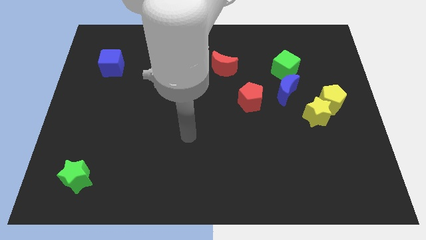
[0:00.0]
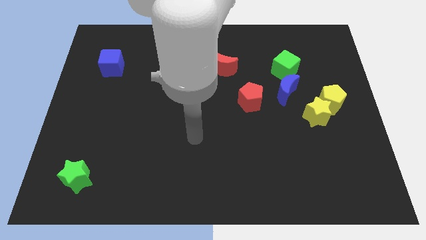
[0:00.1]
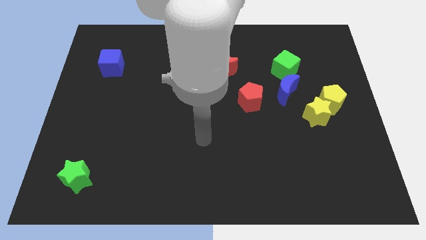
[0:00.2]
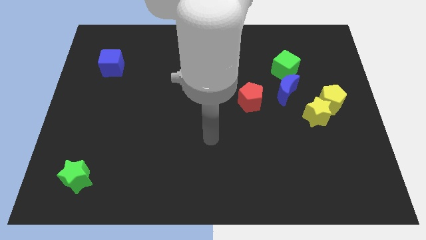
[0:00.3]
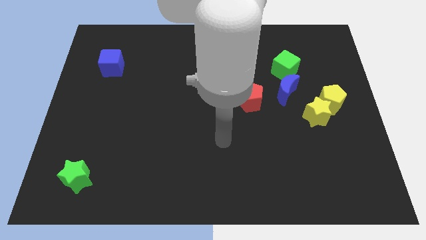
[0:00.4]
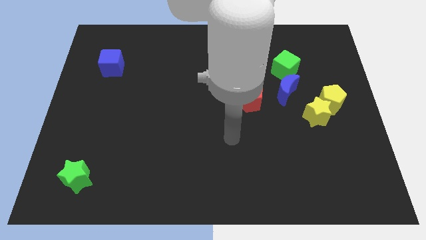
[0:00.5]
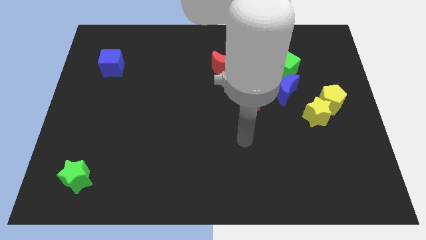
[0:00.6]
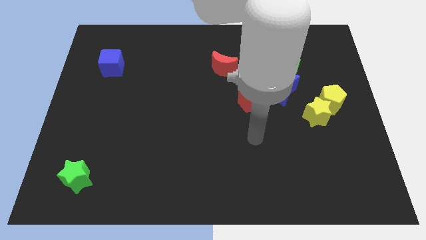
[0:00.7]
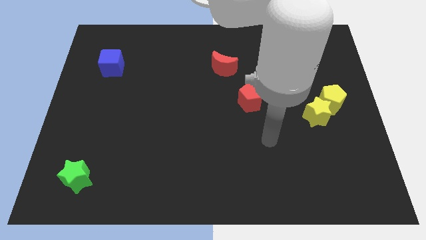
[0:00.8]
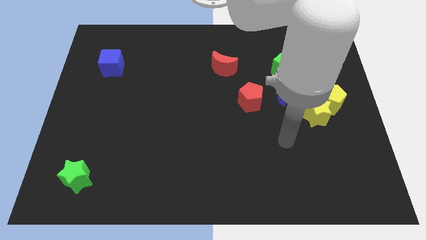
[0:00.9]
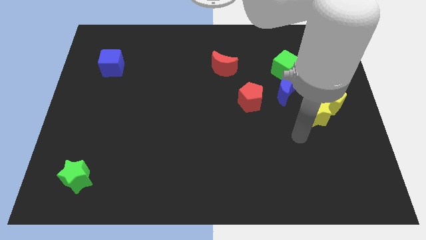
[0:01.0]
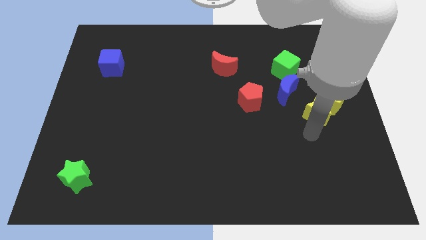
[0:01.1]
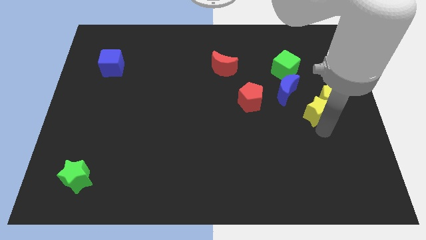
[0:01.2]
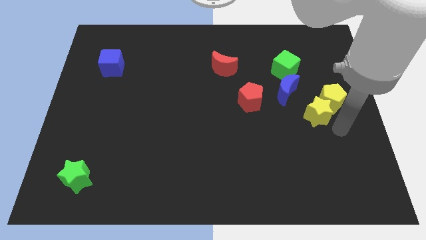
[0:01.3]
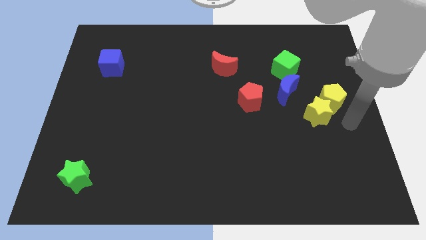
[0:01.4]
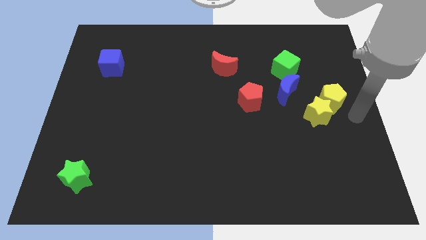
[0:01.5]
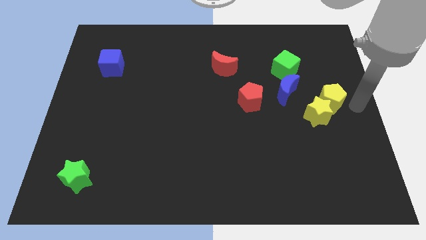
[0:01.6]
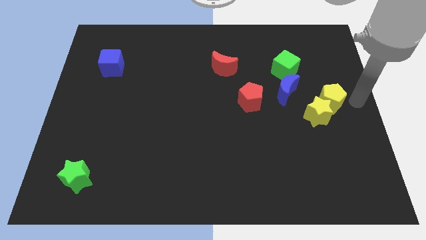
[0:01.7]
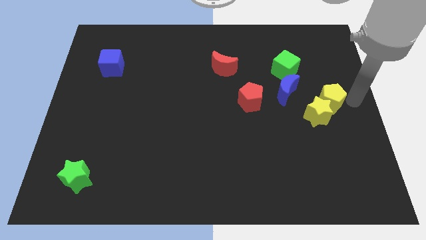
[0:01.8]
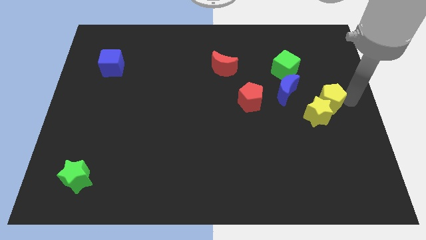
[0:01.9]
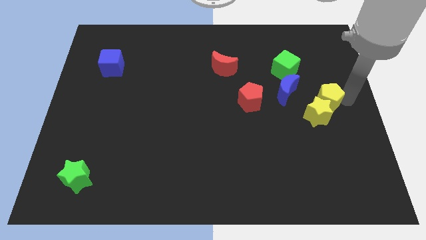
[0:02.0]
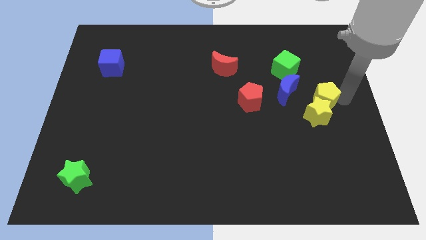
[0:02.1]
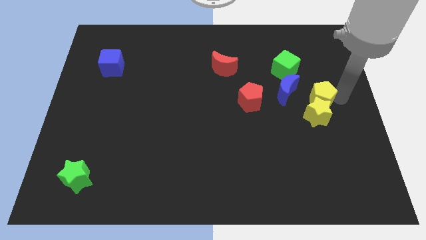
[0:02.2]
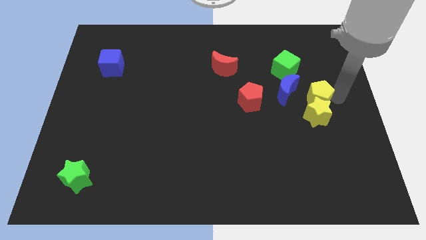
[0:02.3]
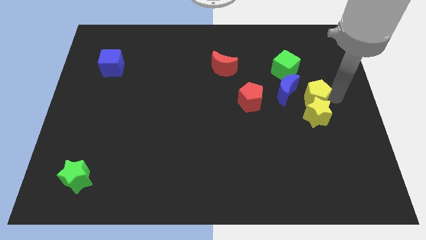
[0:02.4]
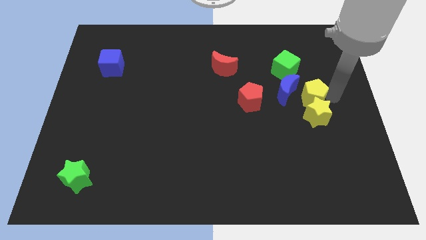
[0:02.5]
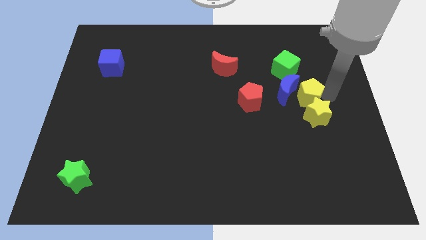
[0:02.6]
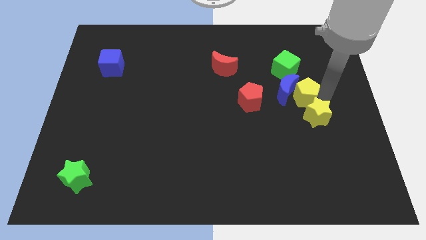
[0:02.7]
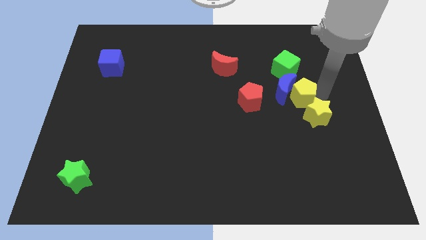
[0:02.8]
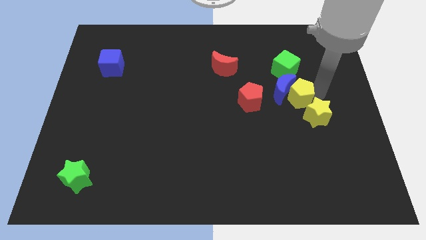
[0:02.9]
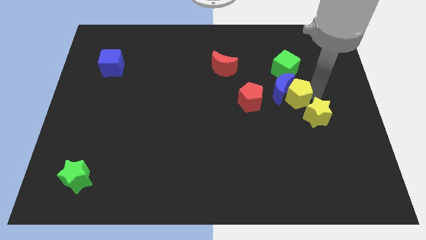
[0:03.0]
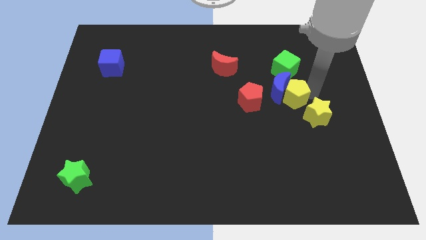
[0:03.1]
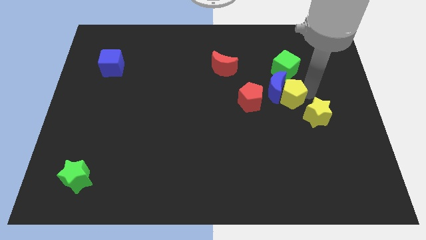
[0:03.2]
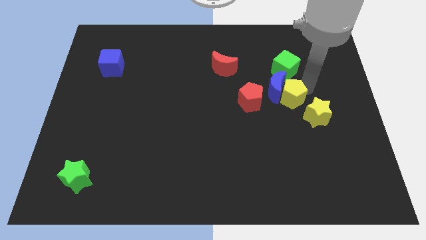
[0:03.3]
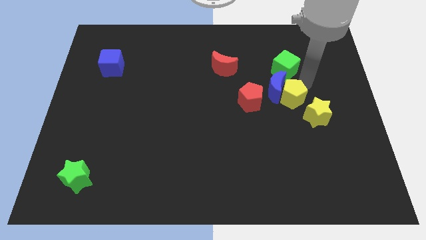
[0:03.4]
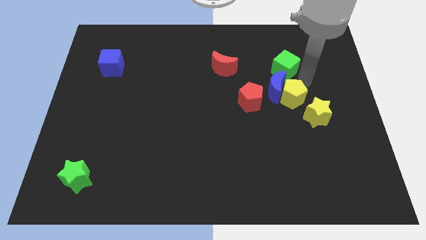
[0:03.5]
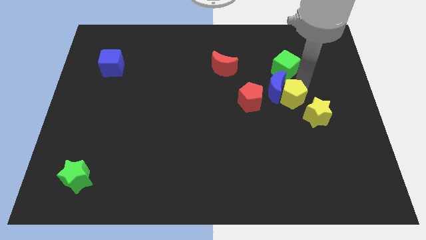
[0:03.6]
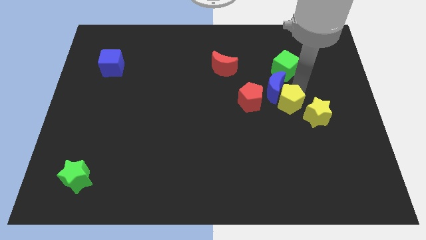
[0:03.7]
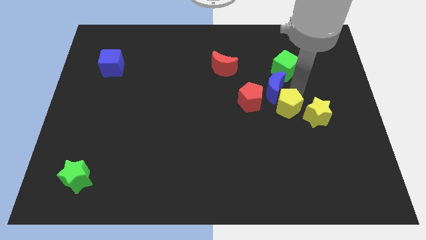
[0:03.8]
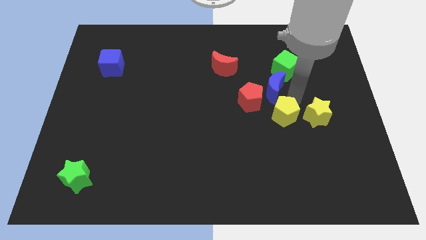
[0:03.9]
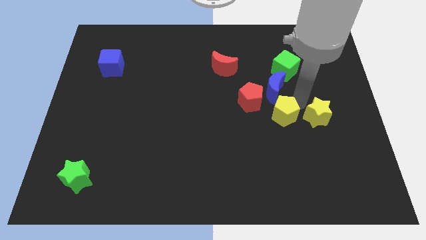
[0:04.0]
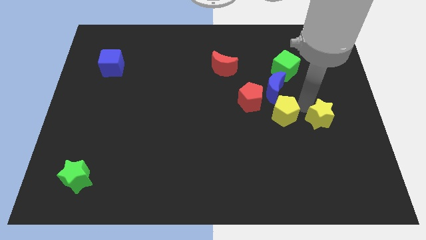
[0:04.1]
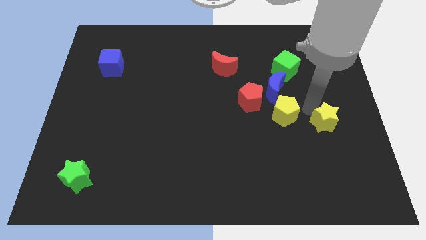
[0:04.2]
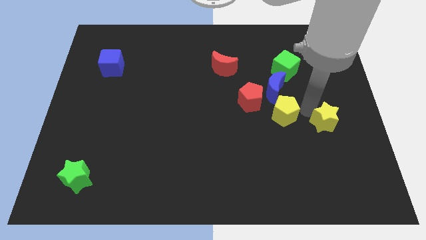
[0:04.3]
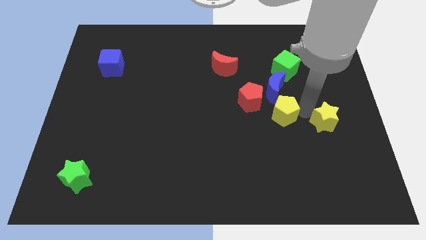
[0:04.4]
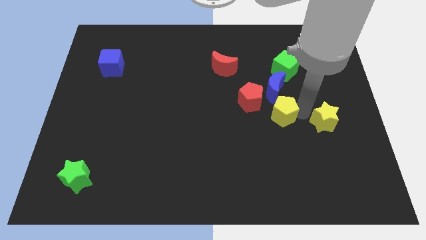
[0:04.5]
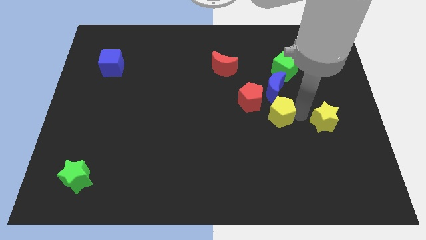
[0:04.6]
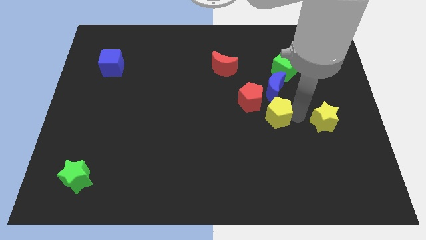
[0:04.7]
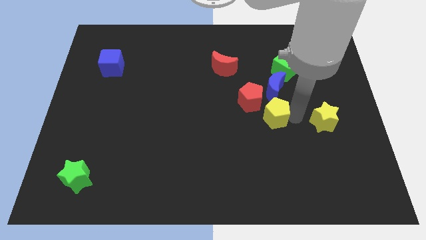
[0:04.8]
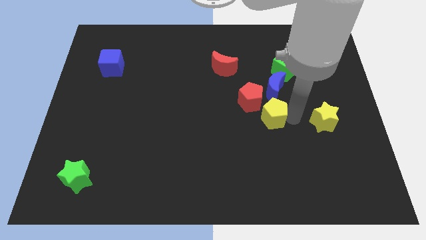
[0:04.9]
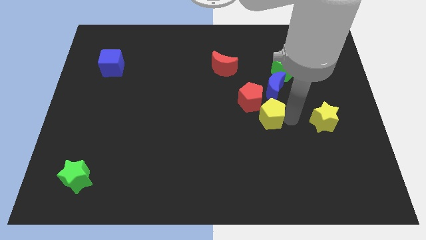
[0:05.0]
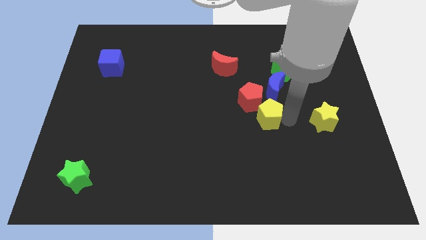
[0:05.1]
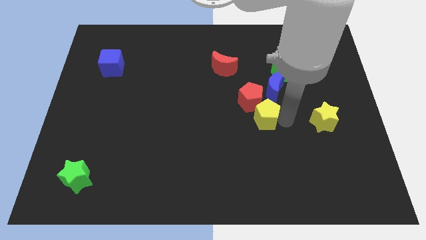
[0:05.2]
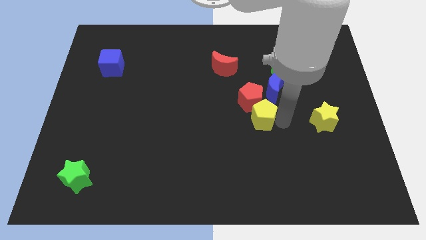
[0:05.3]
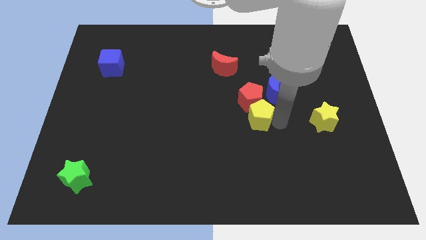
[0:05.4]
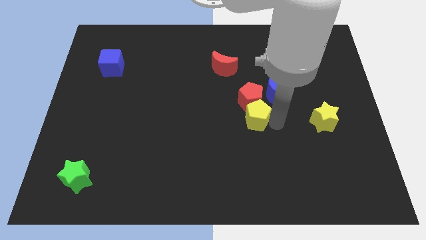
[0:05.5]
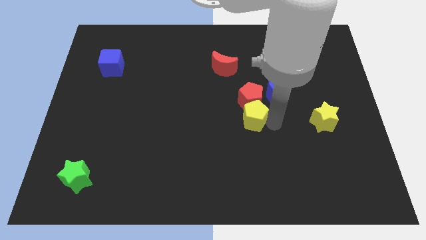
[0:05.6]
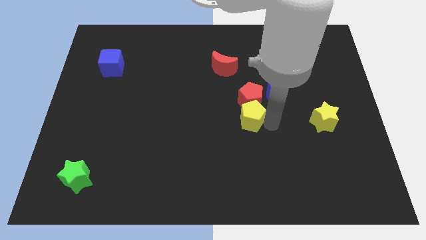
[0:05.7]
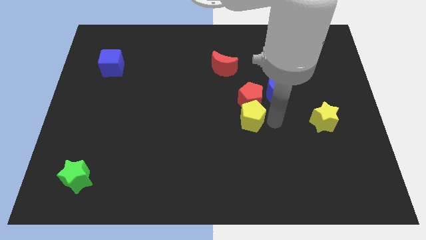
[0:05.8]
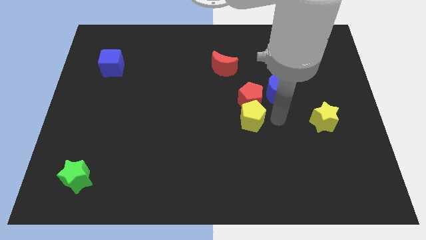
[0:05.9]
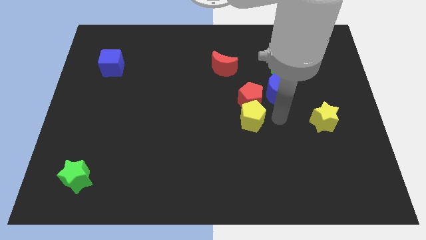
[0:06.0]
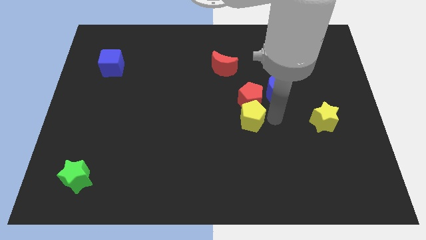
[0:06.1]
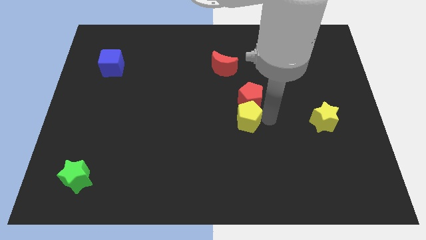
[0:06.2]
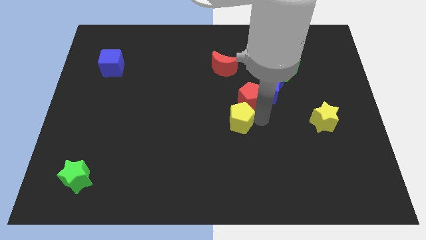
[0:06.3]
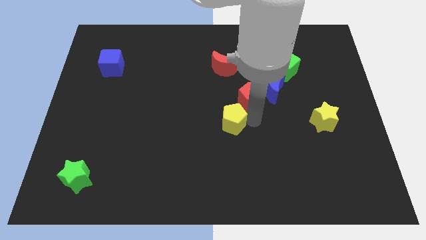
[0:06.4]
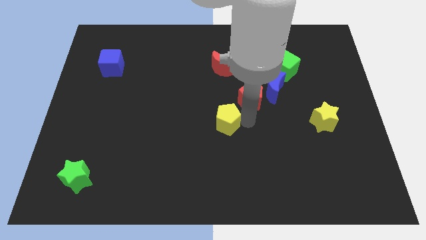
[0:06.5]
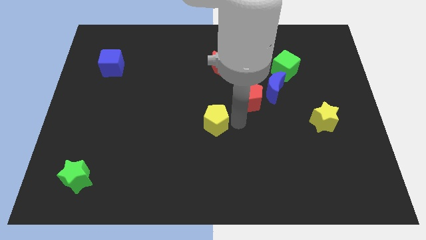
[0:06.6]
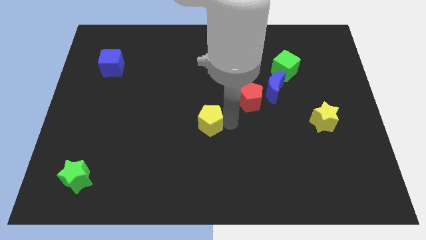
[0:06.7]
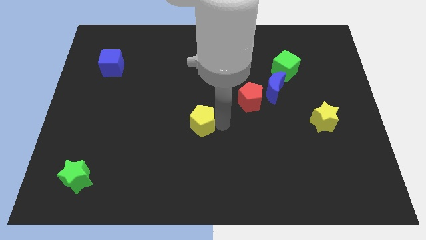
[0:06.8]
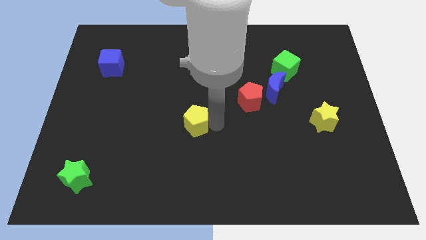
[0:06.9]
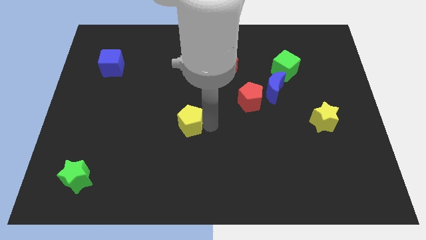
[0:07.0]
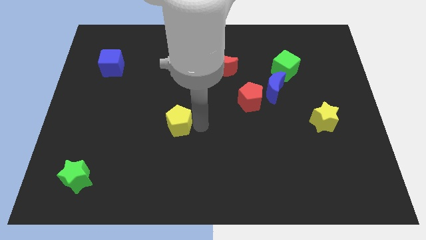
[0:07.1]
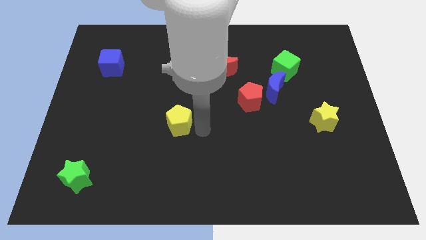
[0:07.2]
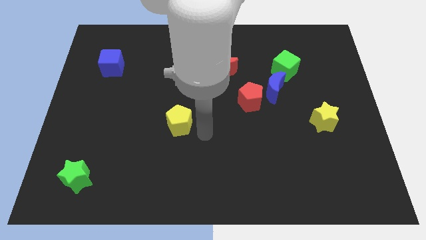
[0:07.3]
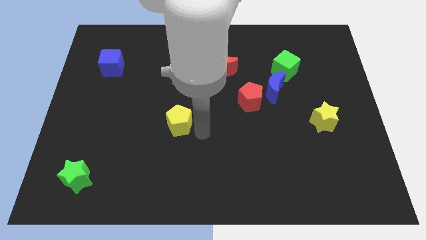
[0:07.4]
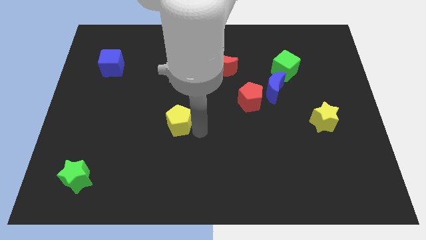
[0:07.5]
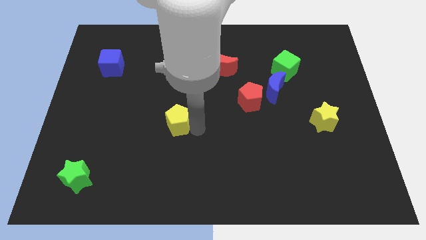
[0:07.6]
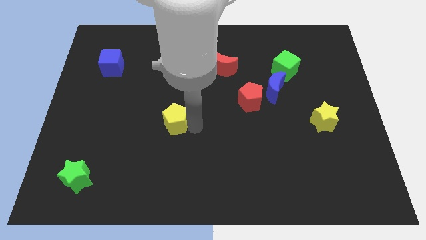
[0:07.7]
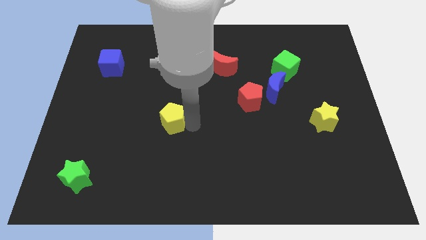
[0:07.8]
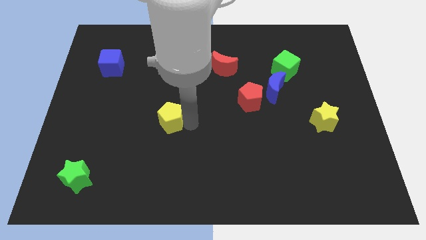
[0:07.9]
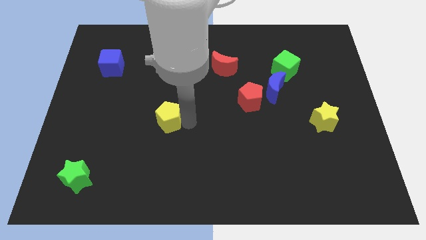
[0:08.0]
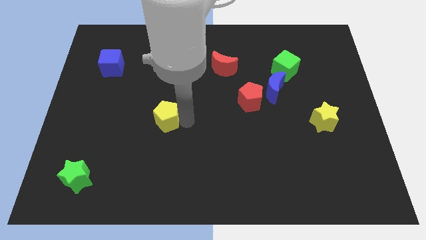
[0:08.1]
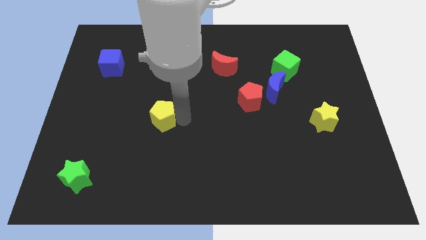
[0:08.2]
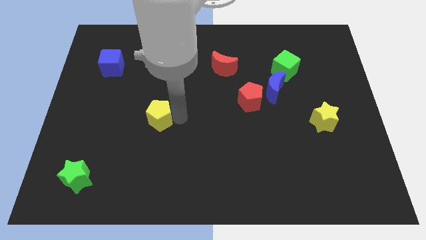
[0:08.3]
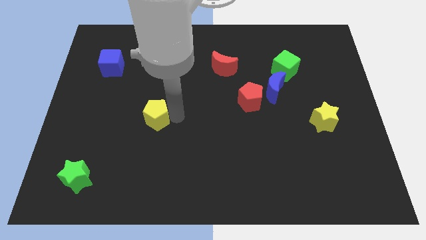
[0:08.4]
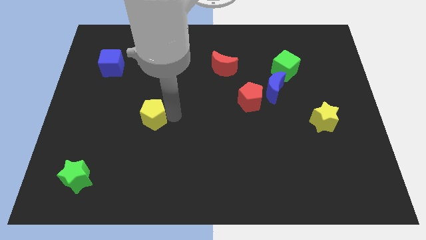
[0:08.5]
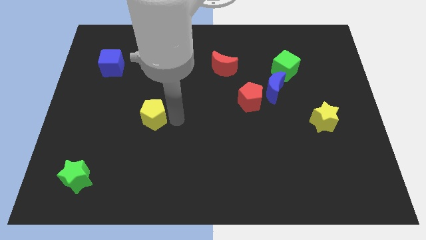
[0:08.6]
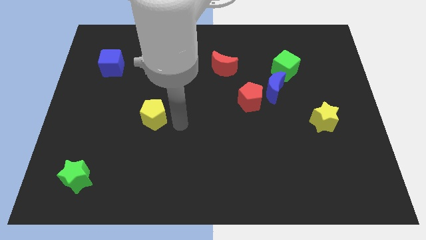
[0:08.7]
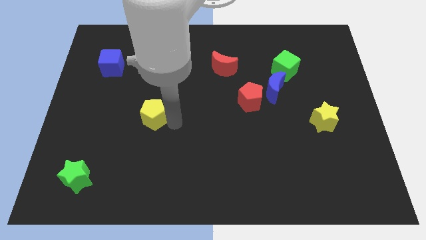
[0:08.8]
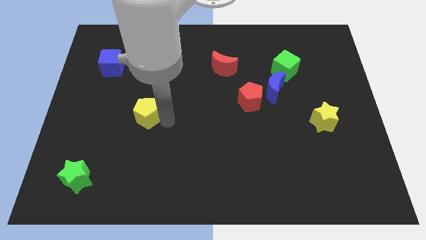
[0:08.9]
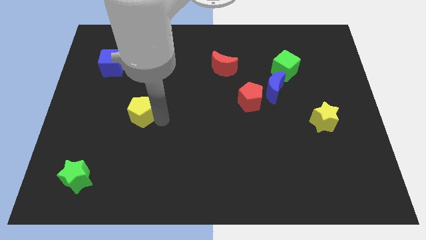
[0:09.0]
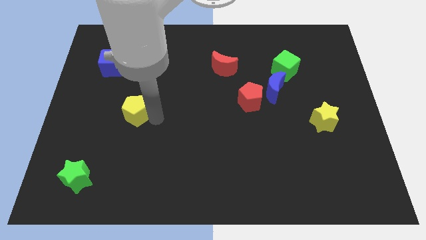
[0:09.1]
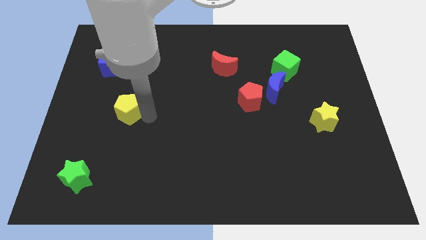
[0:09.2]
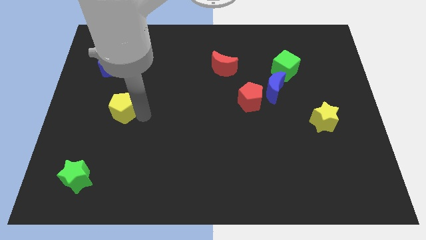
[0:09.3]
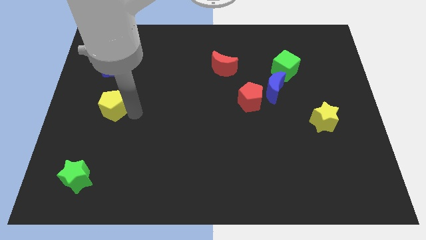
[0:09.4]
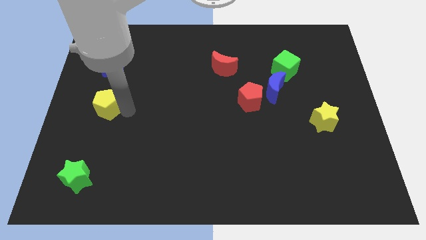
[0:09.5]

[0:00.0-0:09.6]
put the yellow pentagon to the left side
